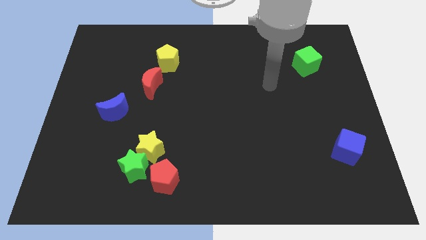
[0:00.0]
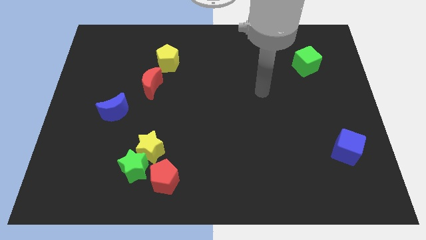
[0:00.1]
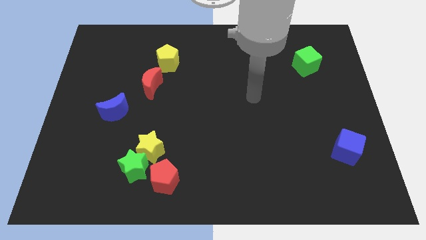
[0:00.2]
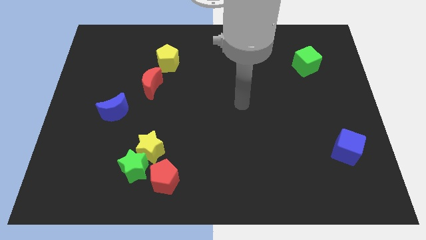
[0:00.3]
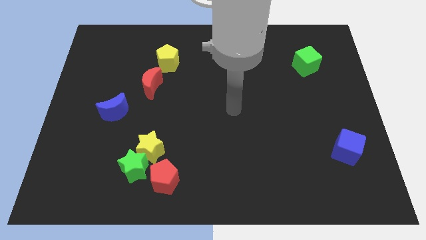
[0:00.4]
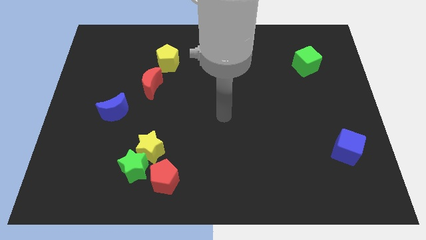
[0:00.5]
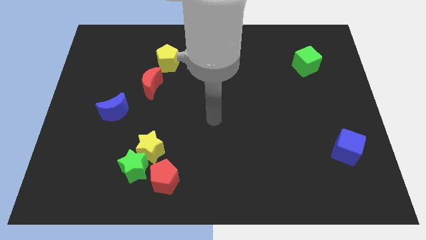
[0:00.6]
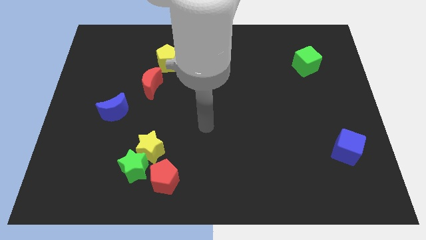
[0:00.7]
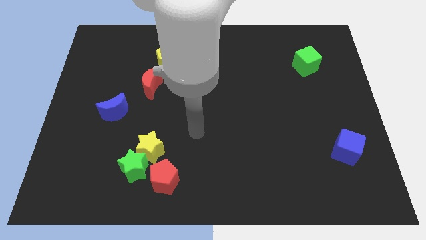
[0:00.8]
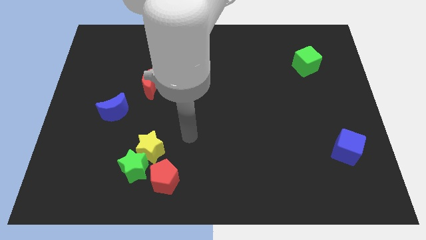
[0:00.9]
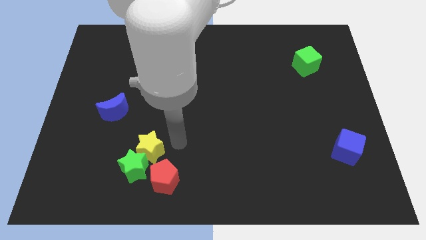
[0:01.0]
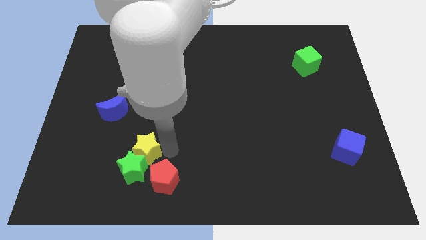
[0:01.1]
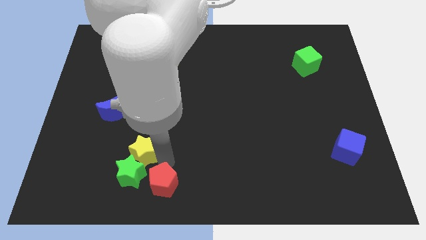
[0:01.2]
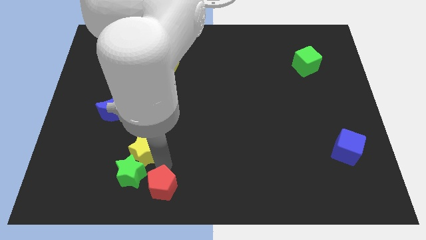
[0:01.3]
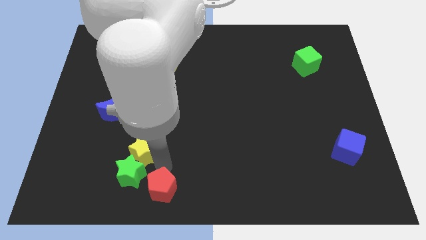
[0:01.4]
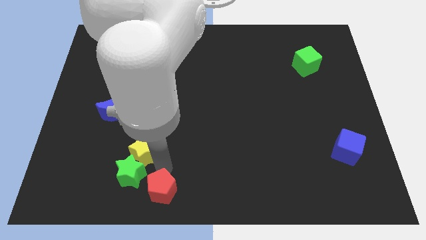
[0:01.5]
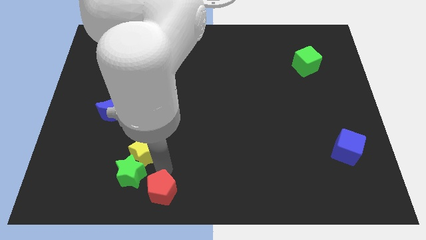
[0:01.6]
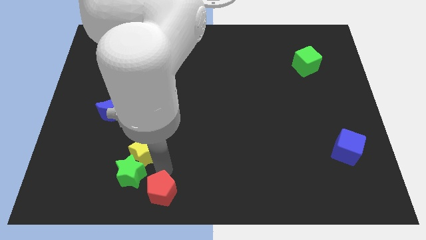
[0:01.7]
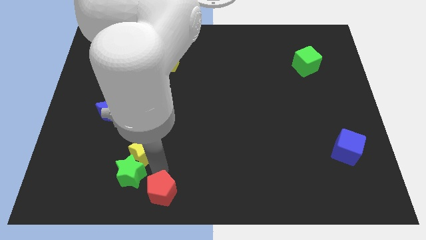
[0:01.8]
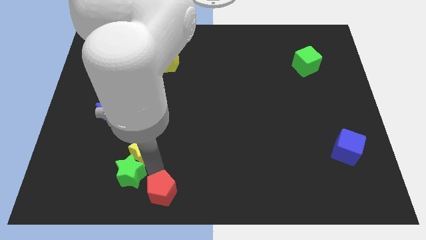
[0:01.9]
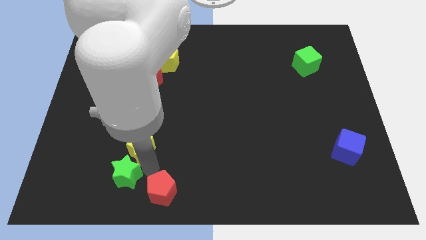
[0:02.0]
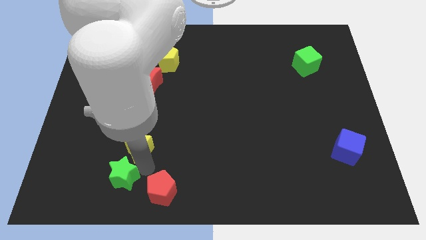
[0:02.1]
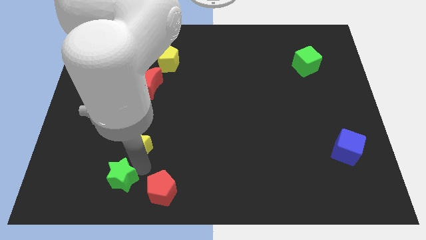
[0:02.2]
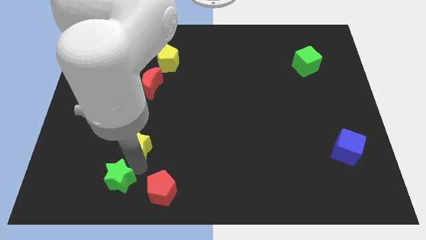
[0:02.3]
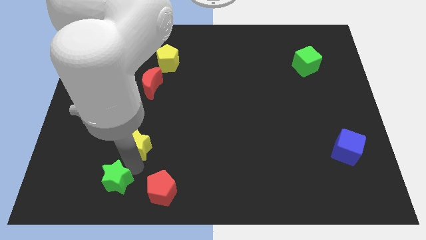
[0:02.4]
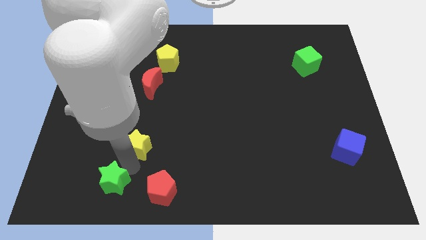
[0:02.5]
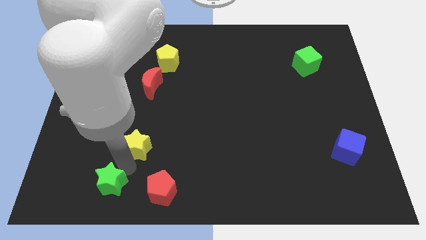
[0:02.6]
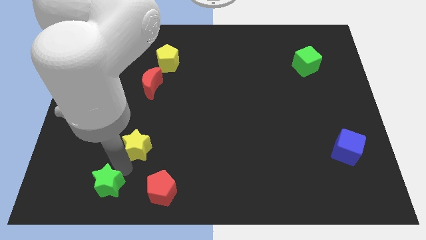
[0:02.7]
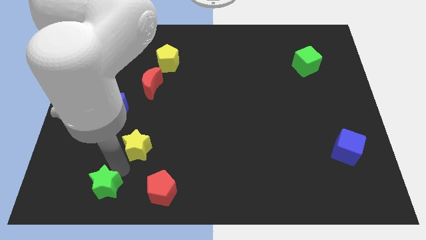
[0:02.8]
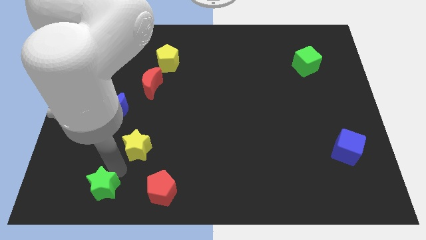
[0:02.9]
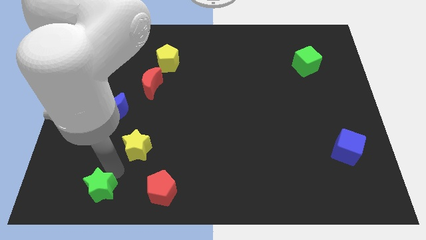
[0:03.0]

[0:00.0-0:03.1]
move the green star away from the yellow star and red pentagon

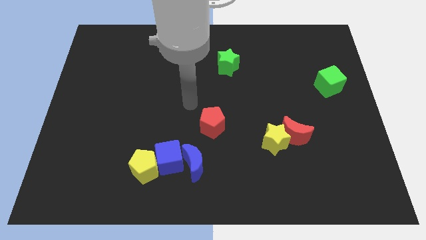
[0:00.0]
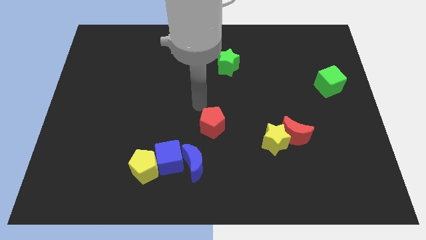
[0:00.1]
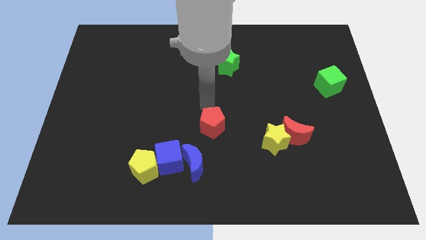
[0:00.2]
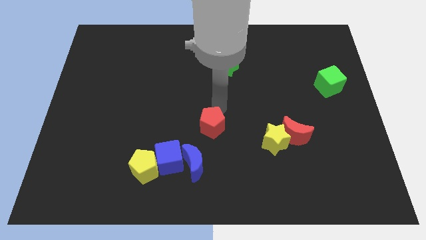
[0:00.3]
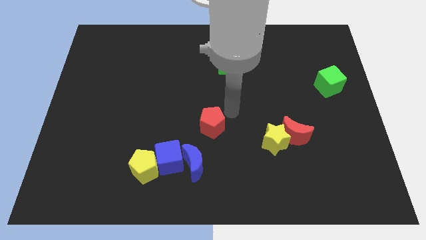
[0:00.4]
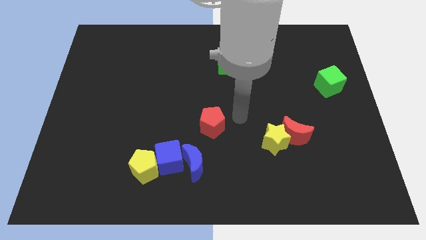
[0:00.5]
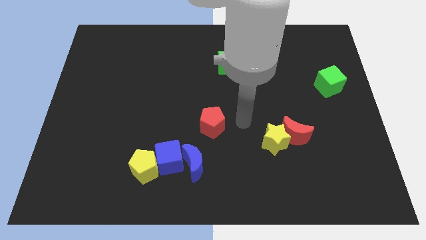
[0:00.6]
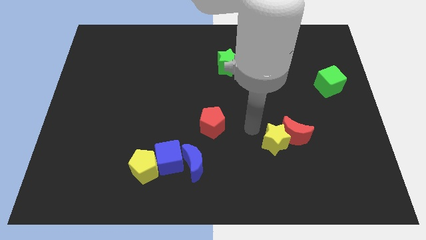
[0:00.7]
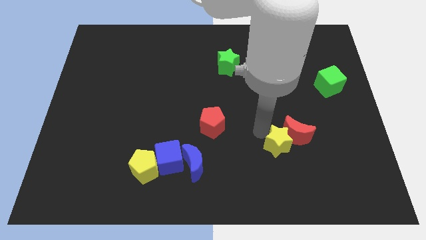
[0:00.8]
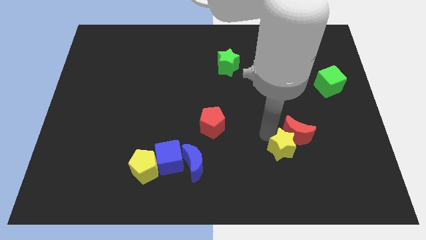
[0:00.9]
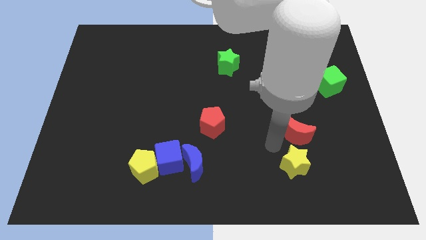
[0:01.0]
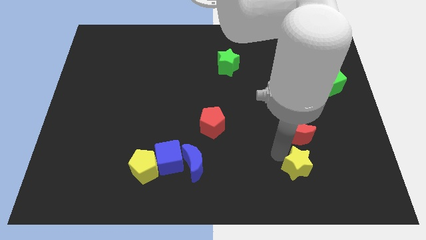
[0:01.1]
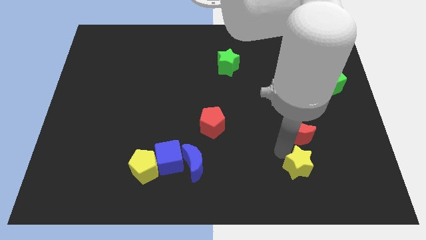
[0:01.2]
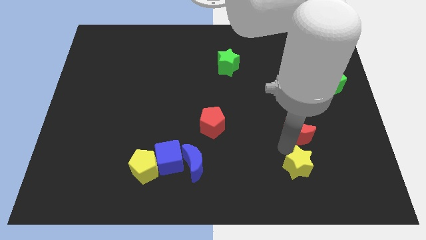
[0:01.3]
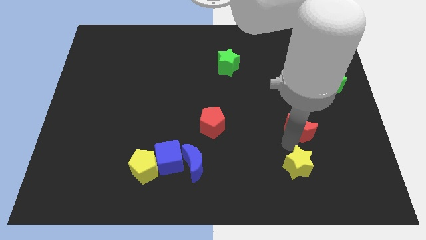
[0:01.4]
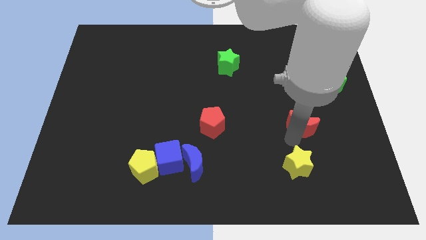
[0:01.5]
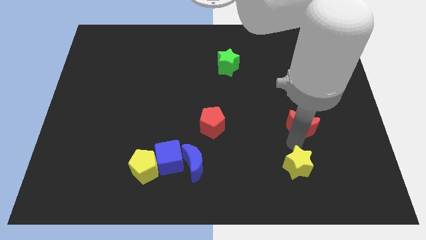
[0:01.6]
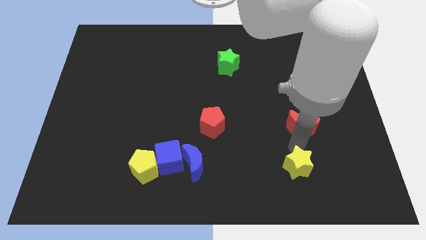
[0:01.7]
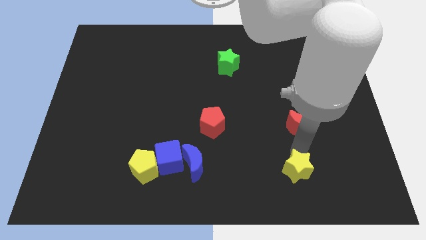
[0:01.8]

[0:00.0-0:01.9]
separate the red moon from the yellow star

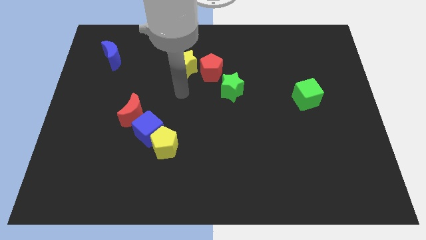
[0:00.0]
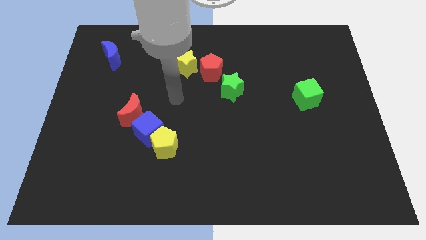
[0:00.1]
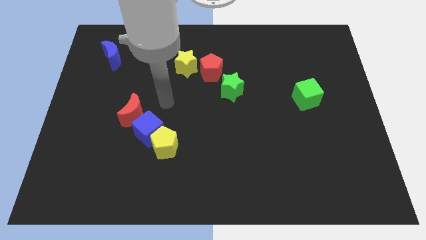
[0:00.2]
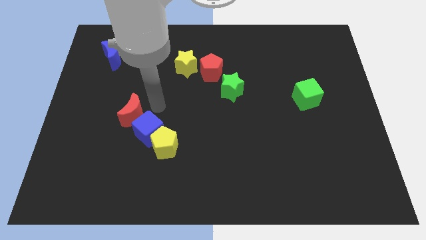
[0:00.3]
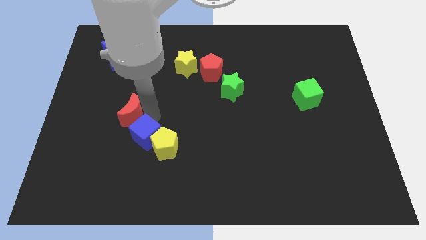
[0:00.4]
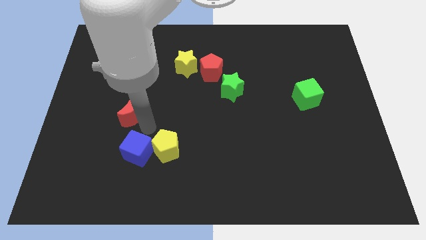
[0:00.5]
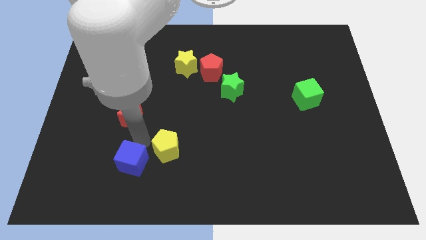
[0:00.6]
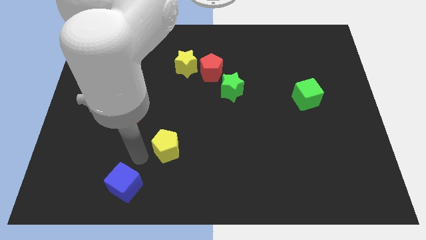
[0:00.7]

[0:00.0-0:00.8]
move the yellow pentagon away from the blue cube

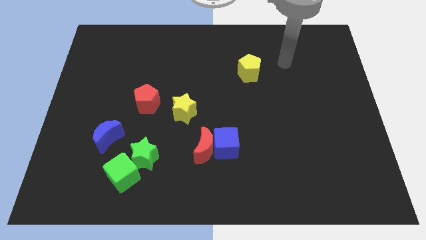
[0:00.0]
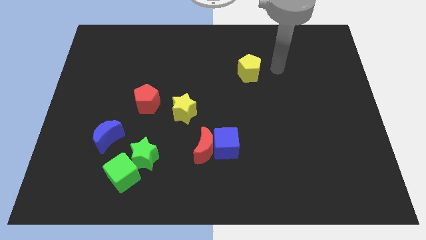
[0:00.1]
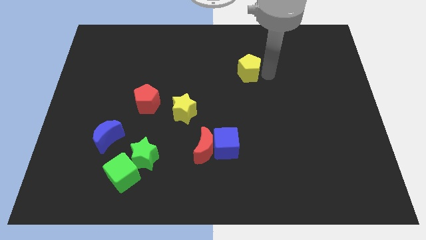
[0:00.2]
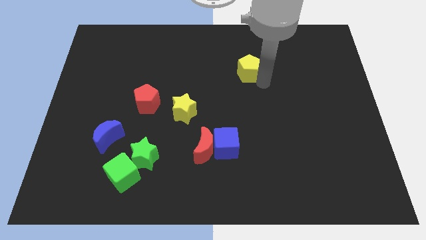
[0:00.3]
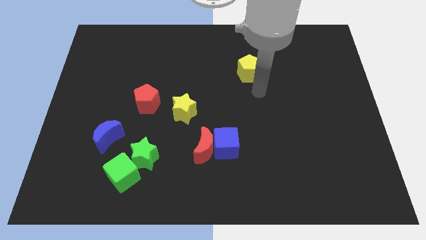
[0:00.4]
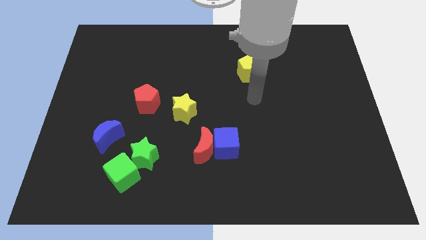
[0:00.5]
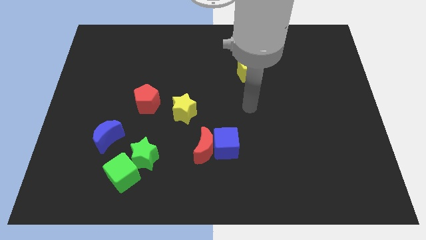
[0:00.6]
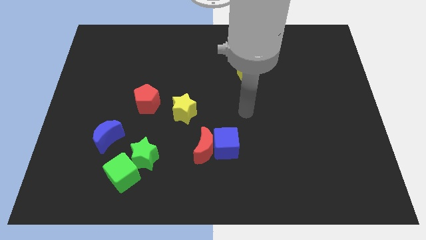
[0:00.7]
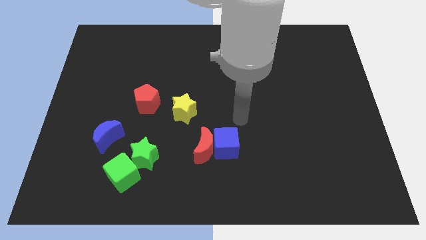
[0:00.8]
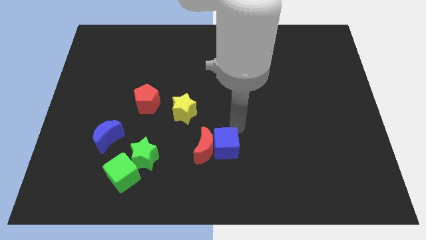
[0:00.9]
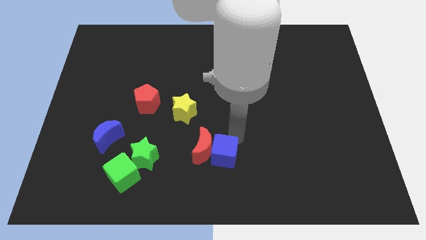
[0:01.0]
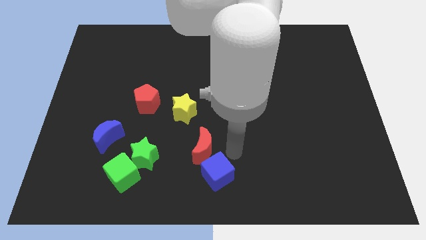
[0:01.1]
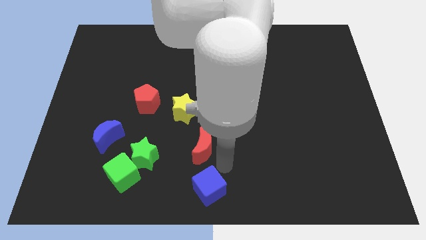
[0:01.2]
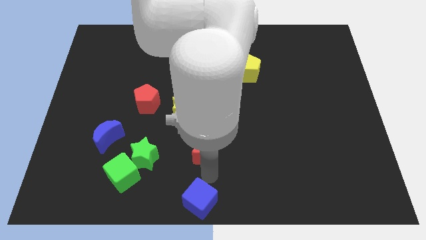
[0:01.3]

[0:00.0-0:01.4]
move the red moon away from the blue cube

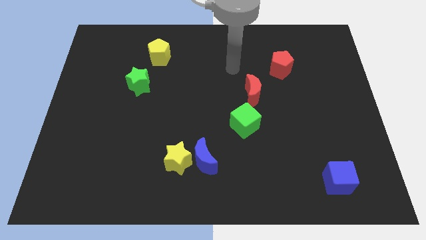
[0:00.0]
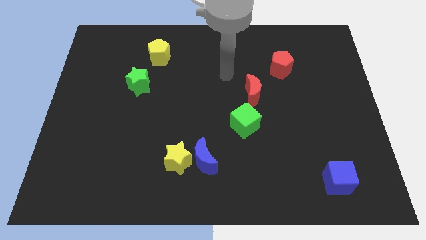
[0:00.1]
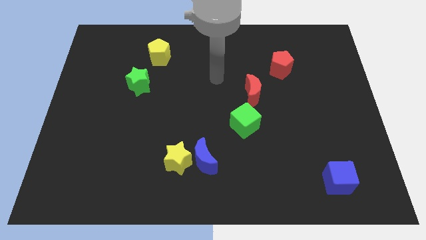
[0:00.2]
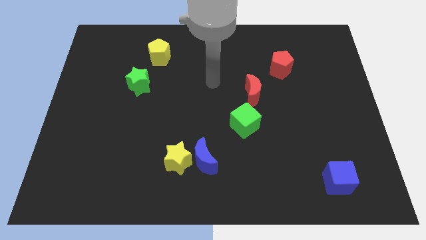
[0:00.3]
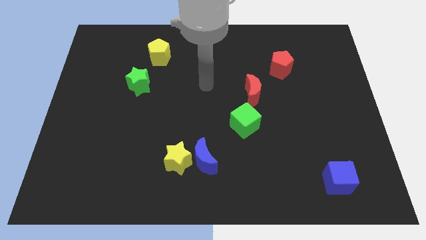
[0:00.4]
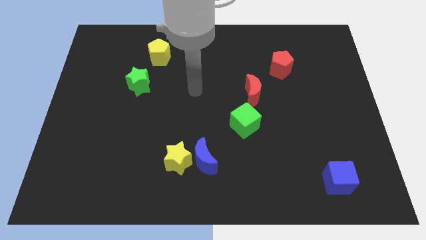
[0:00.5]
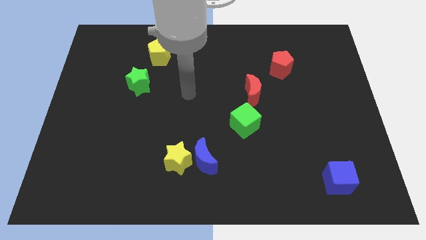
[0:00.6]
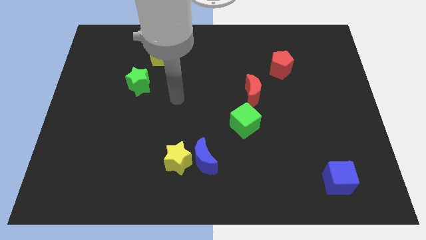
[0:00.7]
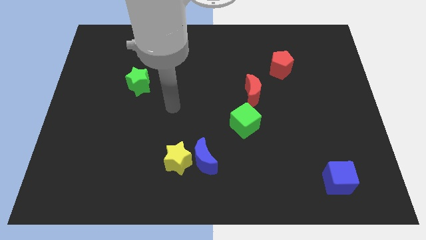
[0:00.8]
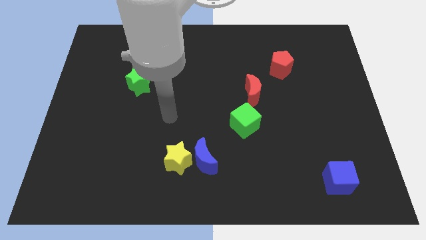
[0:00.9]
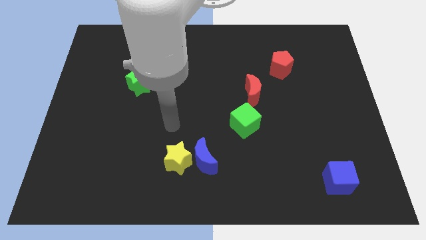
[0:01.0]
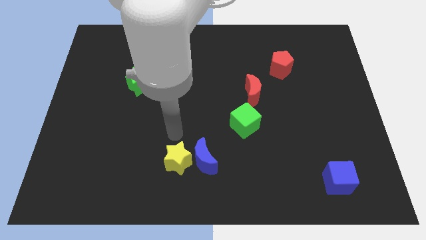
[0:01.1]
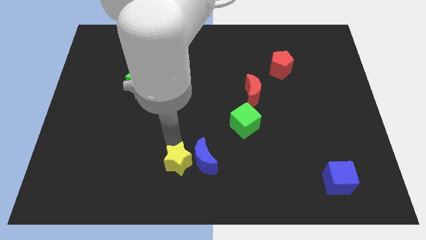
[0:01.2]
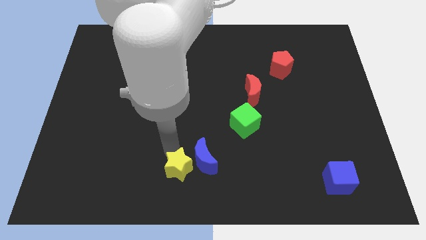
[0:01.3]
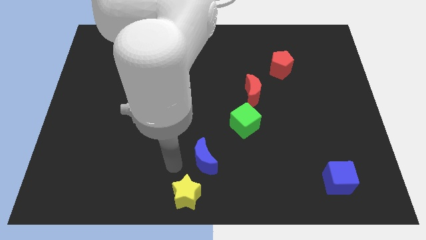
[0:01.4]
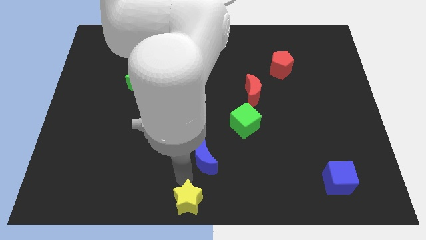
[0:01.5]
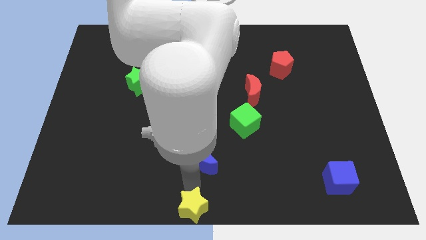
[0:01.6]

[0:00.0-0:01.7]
move the blue moon away from the yellow star

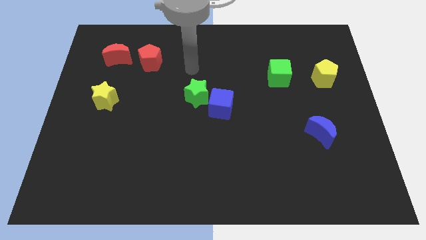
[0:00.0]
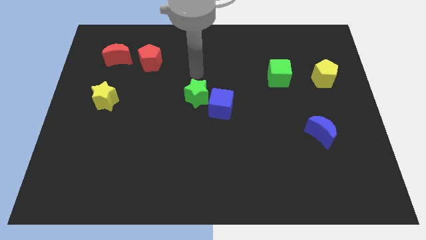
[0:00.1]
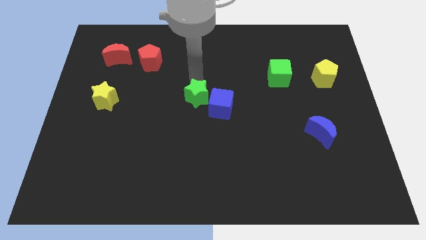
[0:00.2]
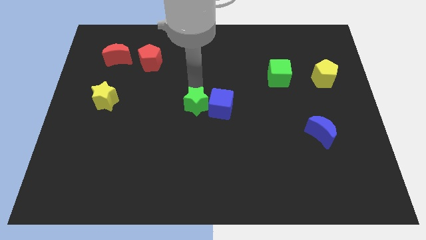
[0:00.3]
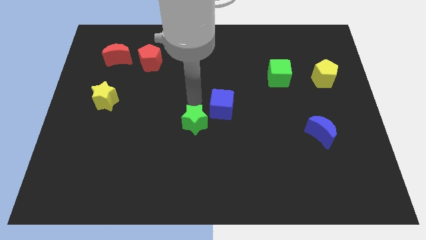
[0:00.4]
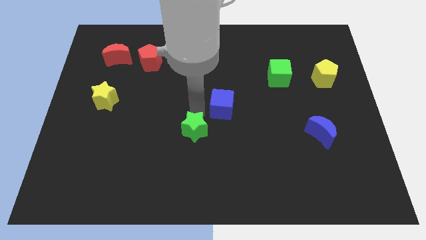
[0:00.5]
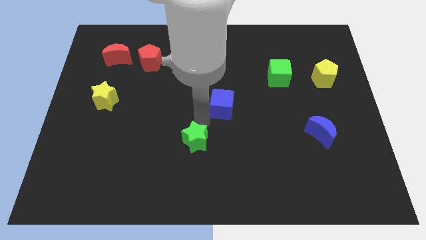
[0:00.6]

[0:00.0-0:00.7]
separate the blue cube from the green star
